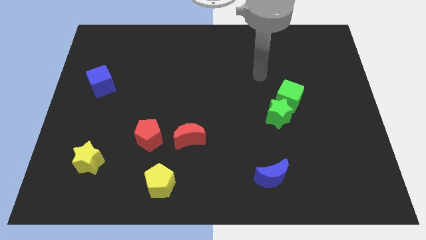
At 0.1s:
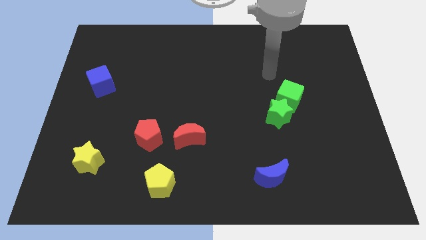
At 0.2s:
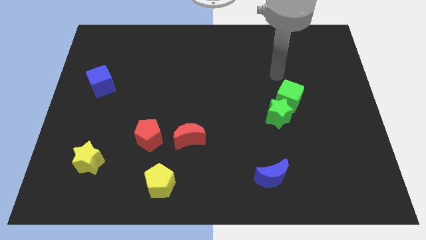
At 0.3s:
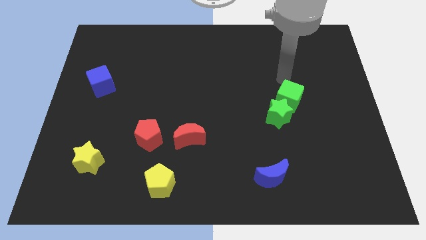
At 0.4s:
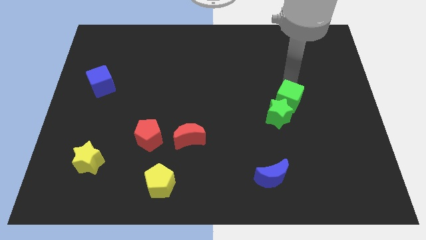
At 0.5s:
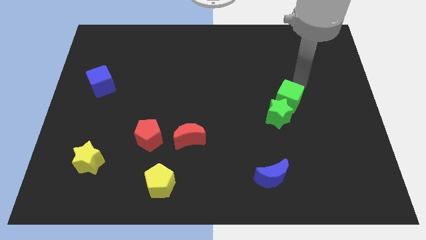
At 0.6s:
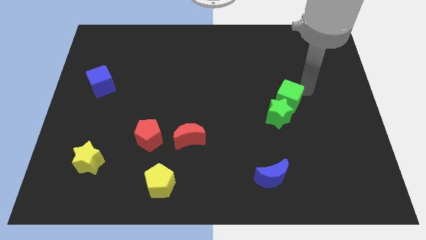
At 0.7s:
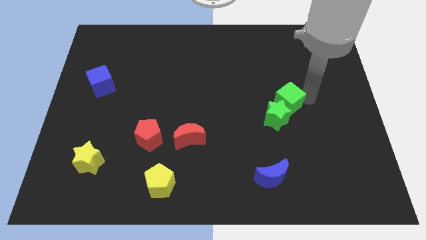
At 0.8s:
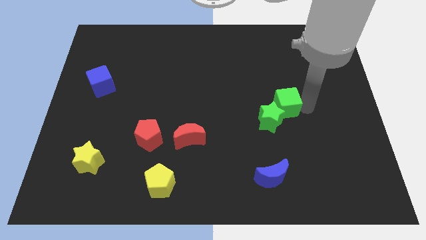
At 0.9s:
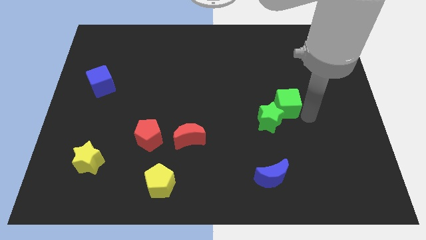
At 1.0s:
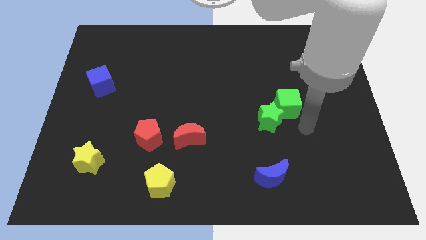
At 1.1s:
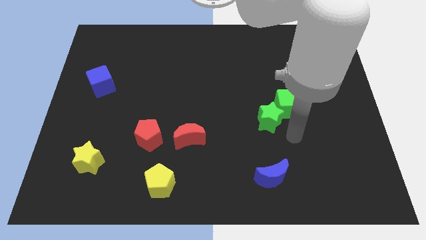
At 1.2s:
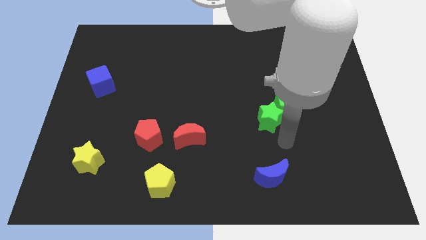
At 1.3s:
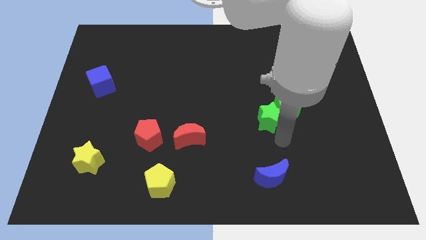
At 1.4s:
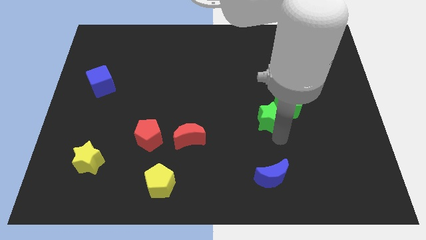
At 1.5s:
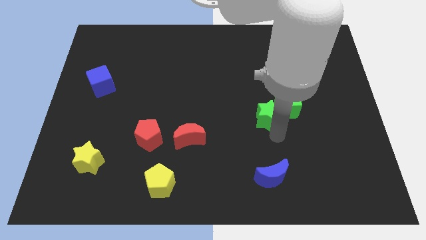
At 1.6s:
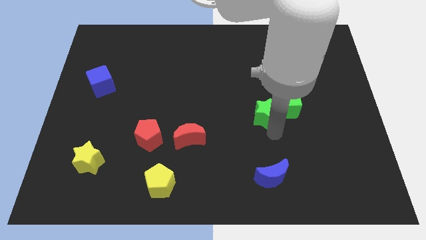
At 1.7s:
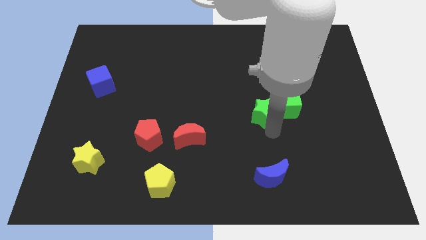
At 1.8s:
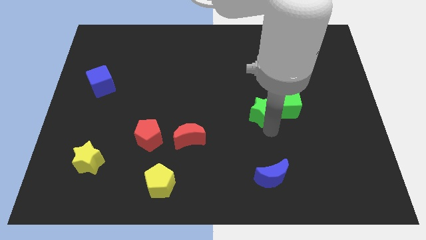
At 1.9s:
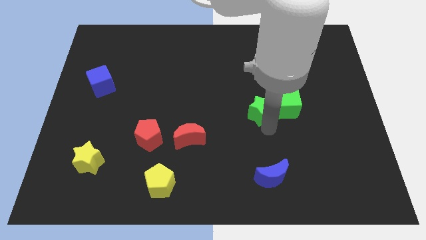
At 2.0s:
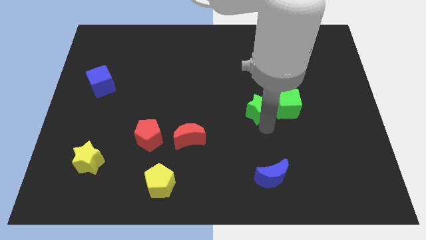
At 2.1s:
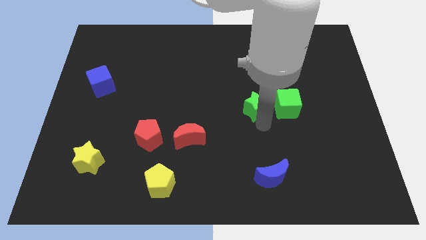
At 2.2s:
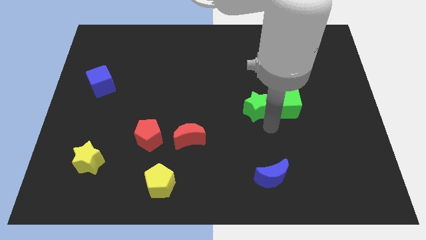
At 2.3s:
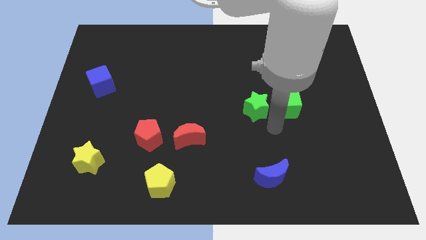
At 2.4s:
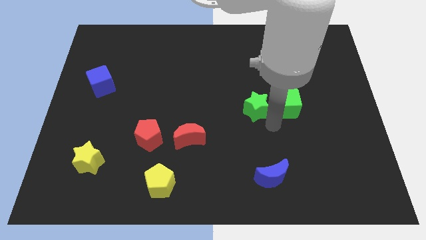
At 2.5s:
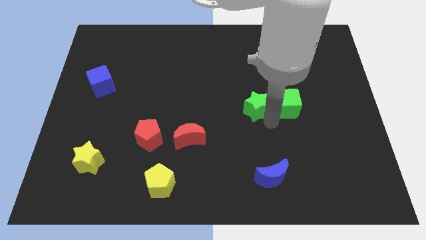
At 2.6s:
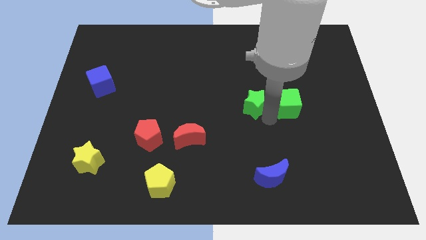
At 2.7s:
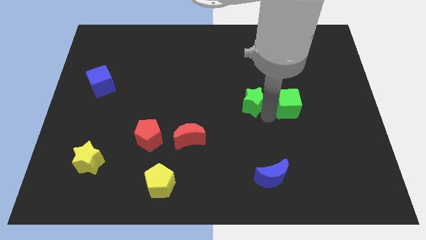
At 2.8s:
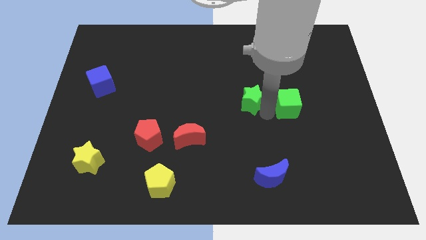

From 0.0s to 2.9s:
slide the green star slightly upwards and left

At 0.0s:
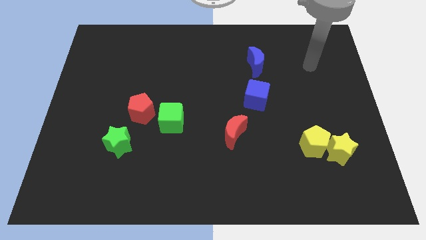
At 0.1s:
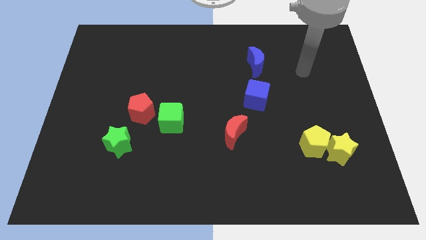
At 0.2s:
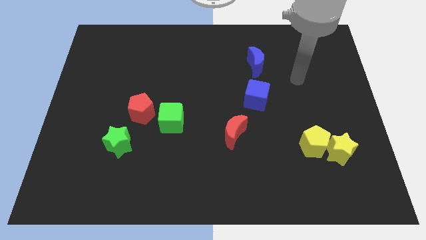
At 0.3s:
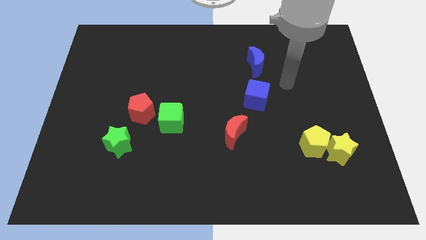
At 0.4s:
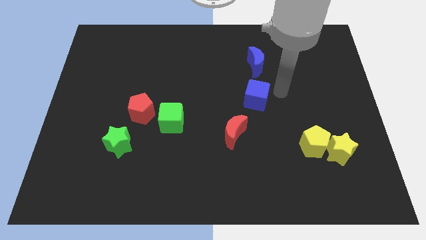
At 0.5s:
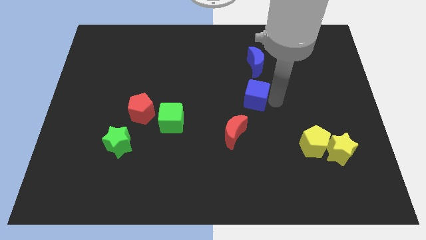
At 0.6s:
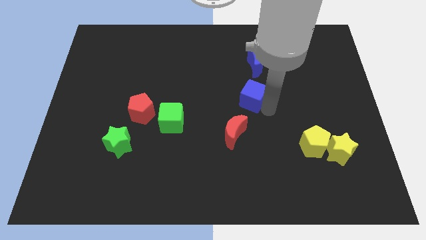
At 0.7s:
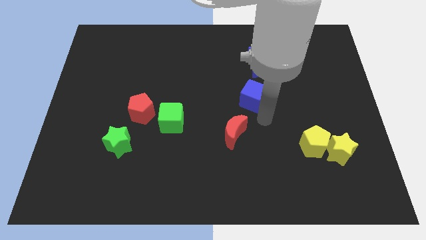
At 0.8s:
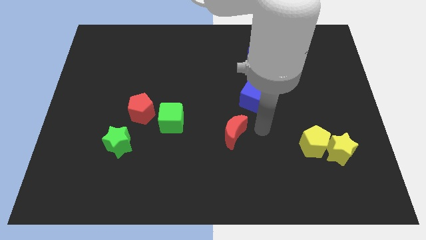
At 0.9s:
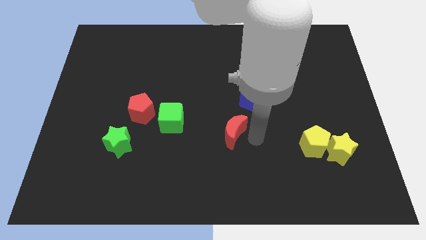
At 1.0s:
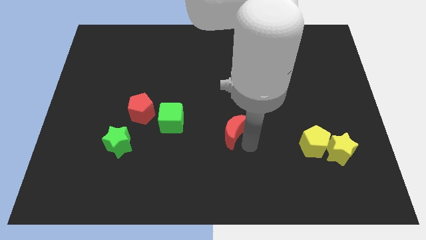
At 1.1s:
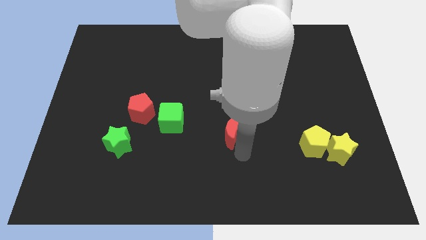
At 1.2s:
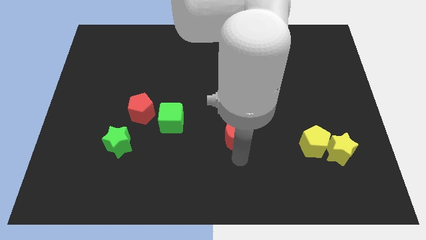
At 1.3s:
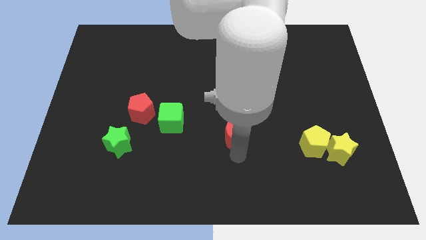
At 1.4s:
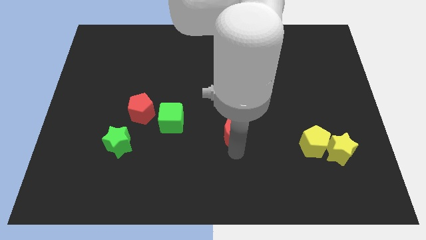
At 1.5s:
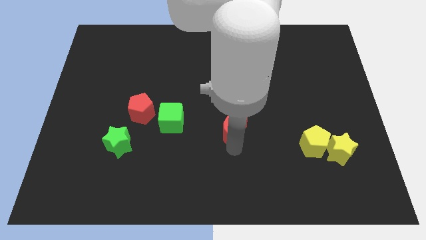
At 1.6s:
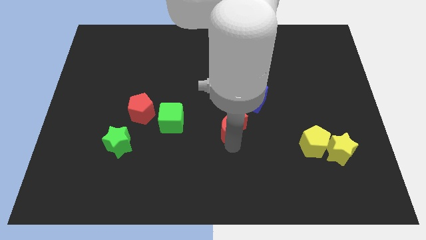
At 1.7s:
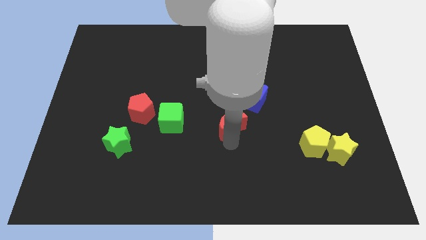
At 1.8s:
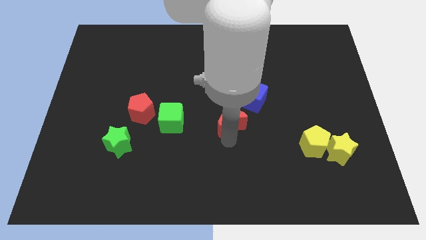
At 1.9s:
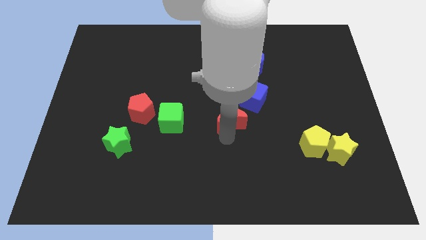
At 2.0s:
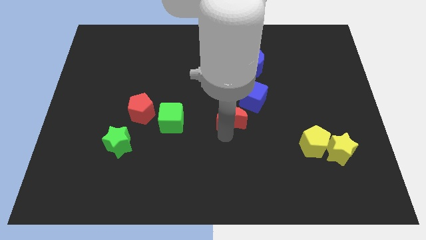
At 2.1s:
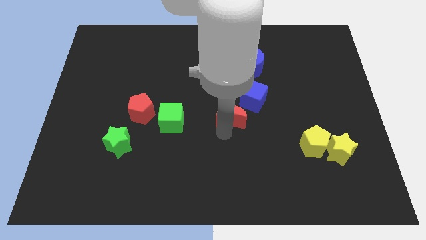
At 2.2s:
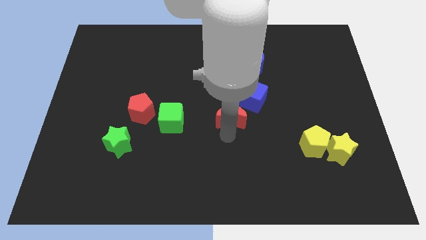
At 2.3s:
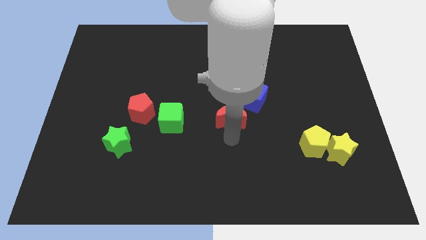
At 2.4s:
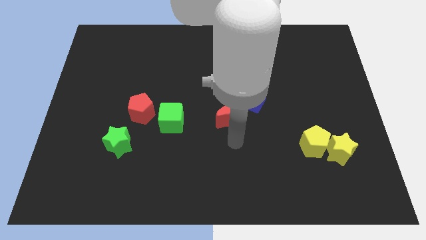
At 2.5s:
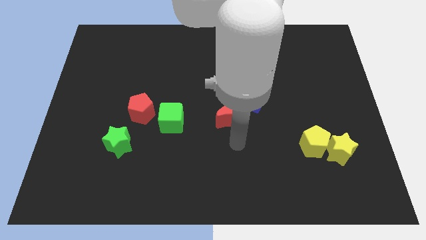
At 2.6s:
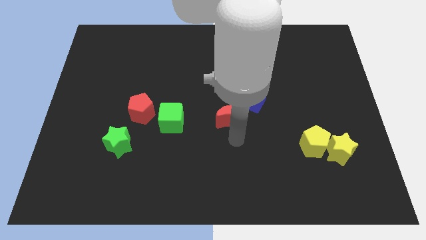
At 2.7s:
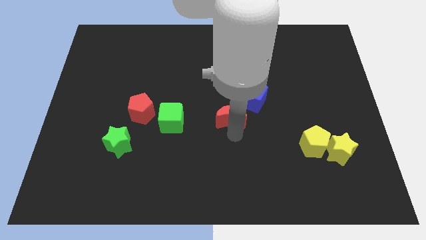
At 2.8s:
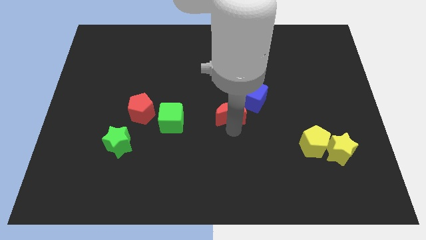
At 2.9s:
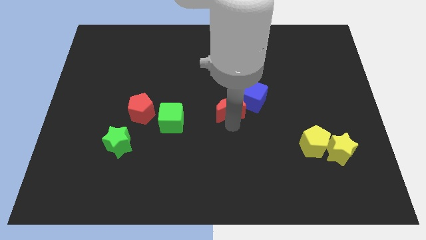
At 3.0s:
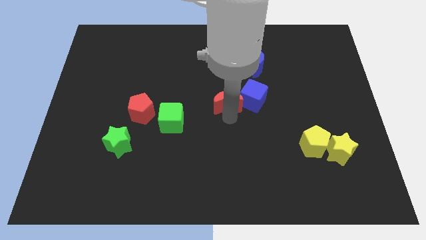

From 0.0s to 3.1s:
push the red moon up somewhat

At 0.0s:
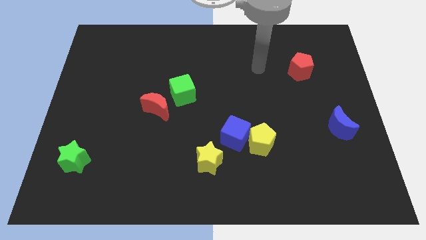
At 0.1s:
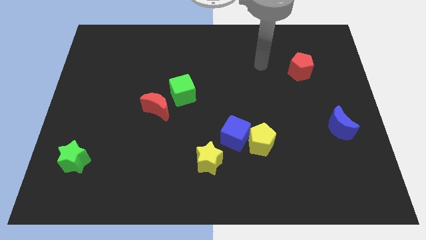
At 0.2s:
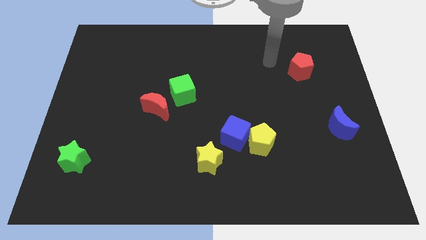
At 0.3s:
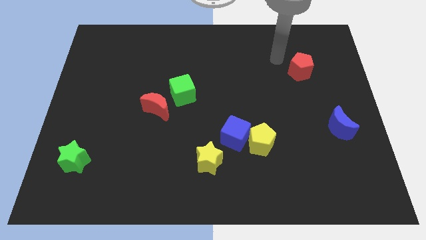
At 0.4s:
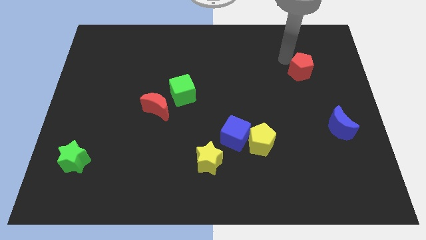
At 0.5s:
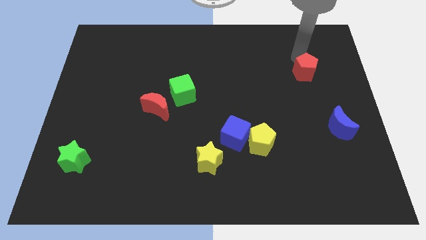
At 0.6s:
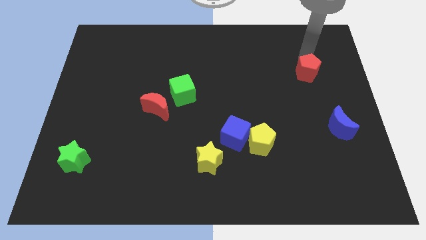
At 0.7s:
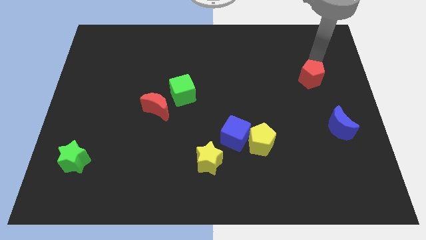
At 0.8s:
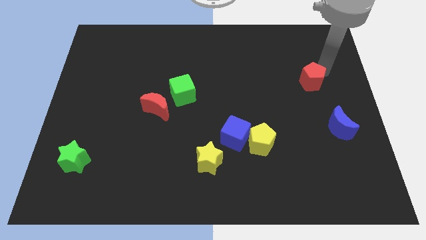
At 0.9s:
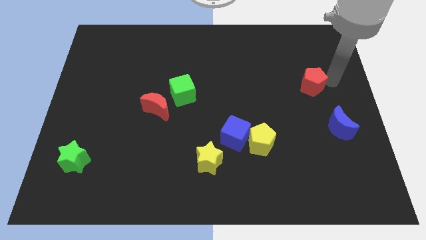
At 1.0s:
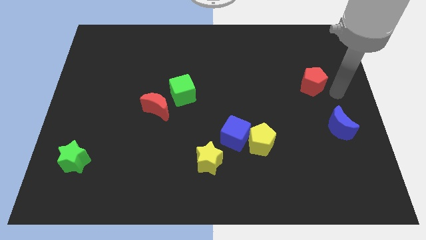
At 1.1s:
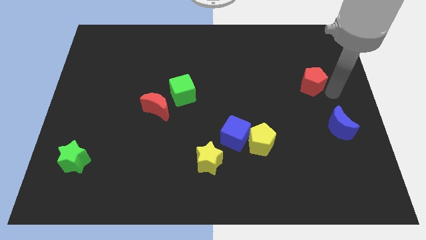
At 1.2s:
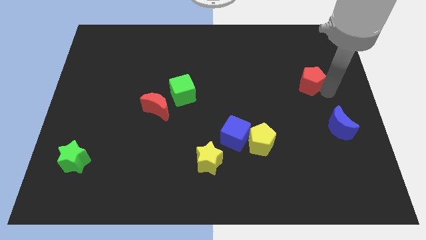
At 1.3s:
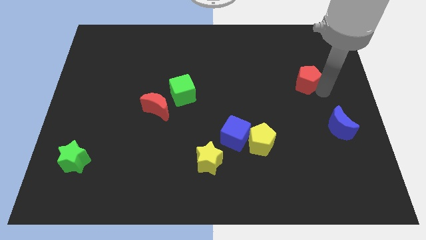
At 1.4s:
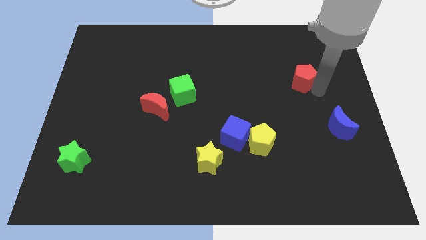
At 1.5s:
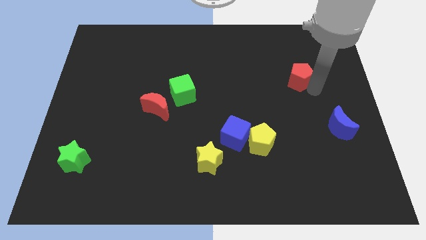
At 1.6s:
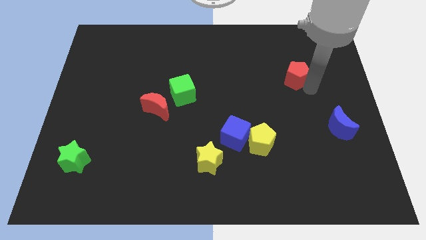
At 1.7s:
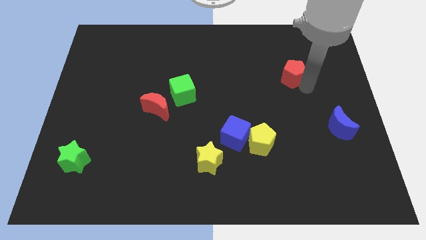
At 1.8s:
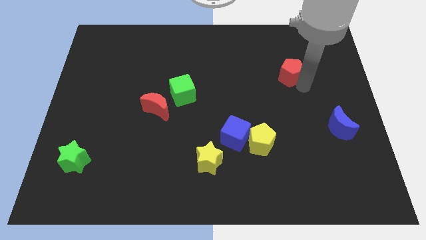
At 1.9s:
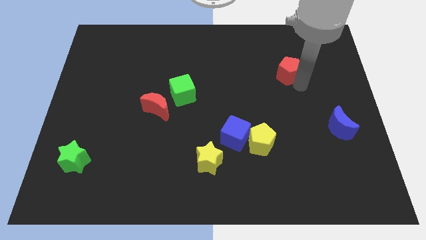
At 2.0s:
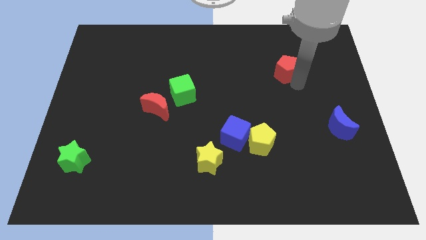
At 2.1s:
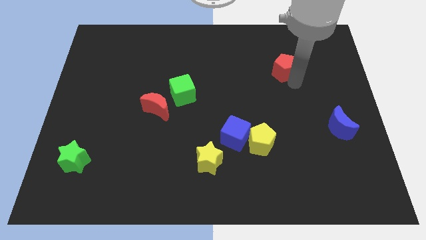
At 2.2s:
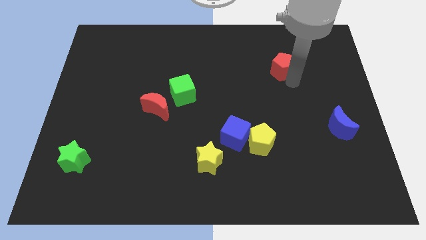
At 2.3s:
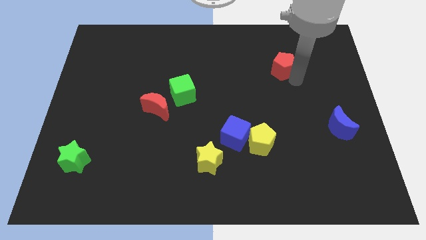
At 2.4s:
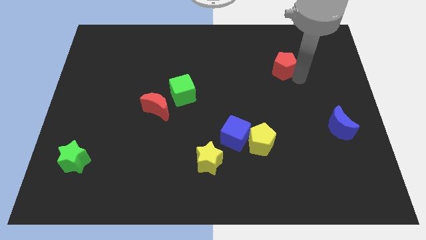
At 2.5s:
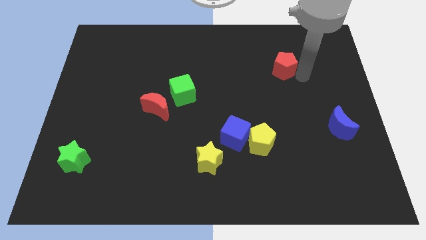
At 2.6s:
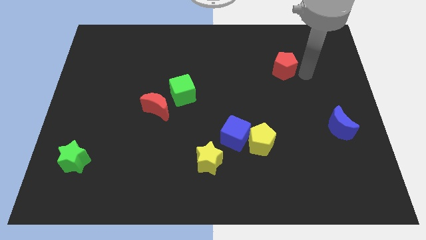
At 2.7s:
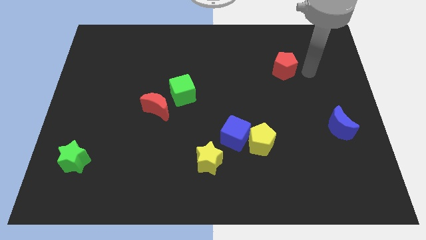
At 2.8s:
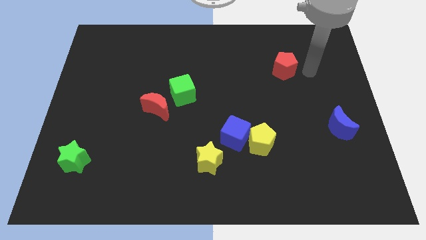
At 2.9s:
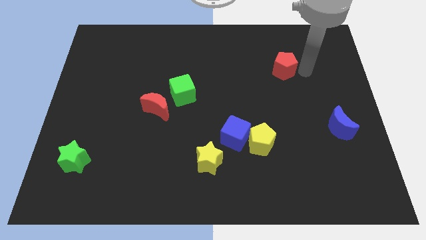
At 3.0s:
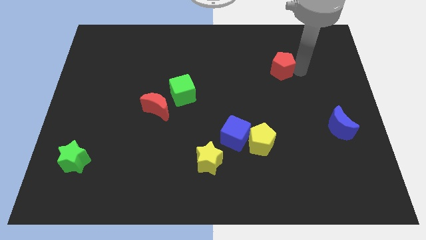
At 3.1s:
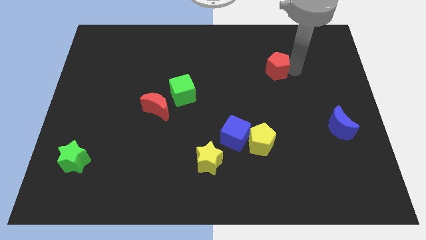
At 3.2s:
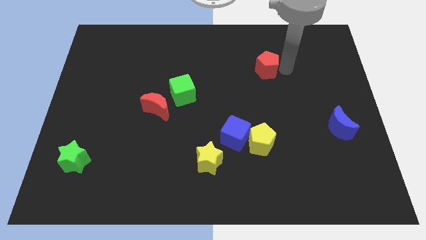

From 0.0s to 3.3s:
slightly slide the red pentagon to the left
